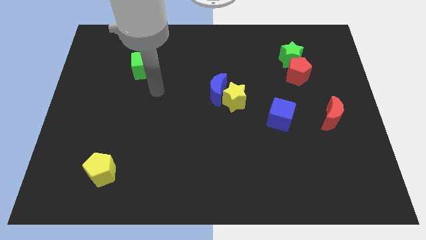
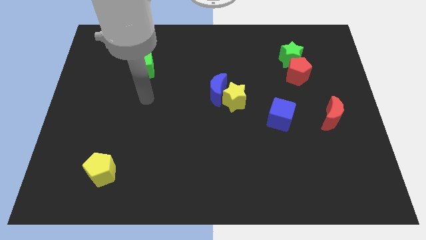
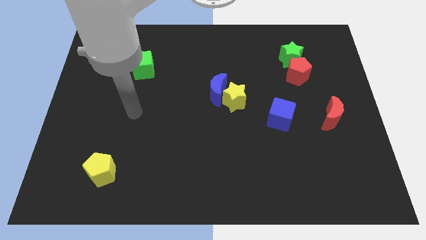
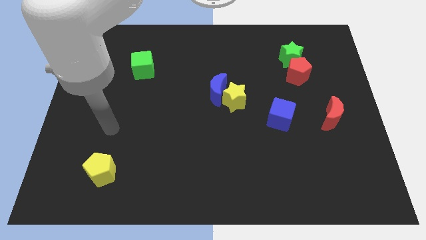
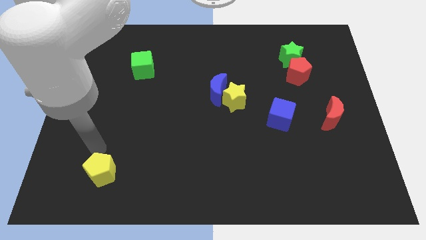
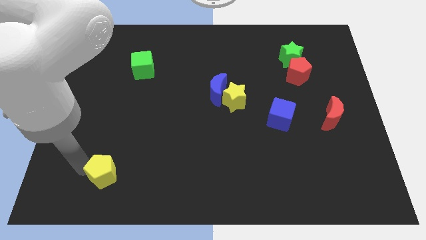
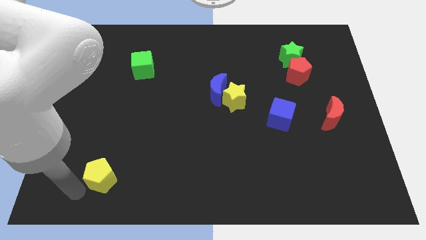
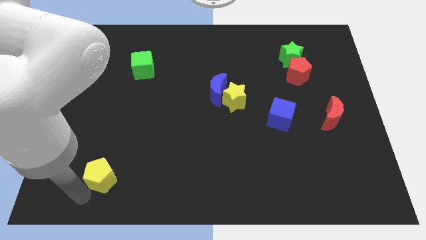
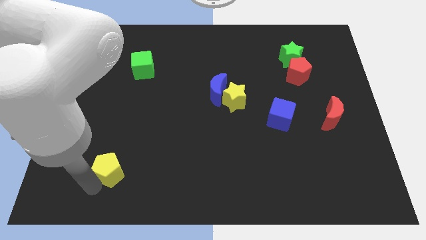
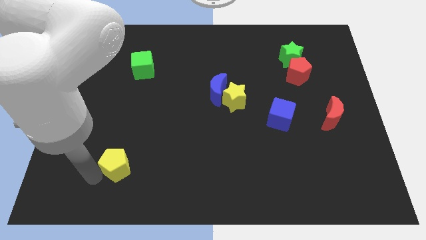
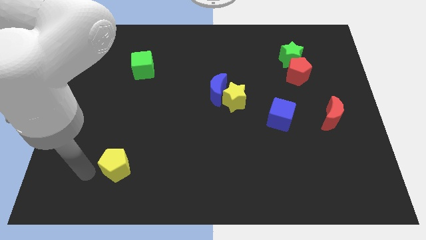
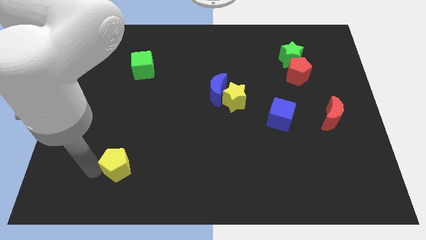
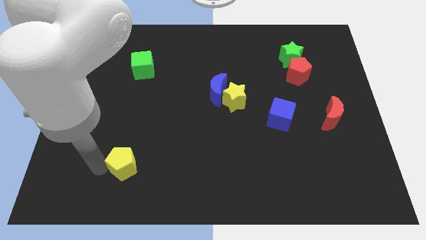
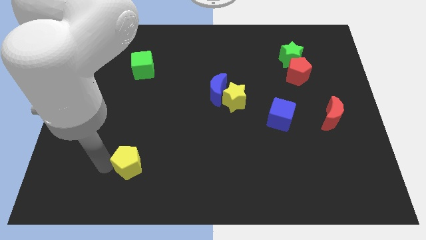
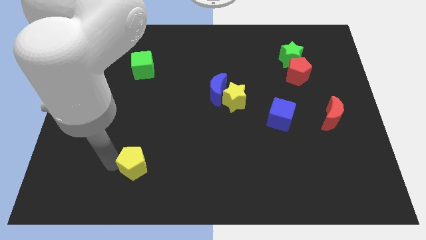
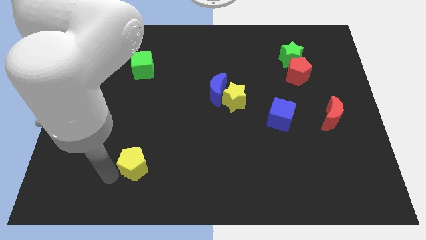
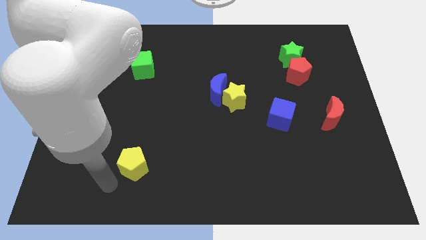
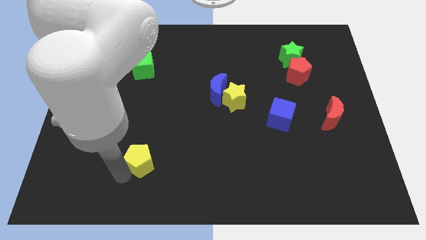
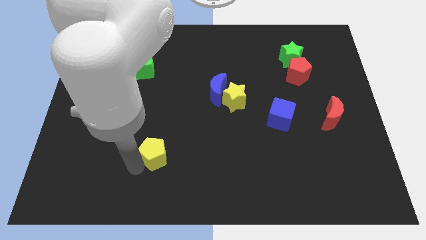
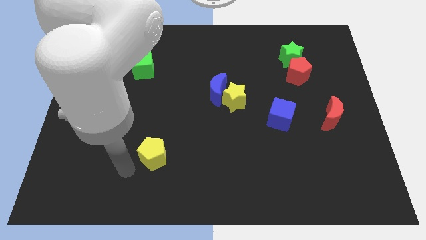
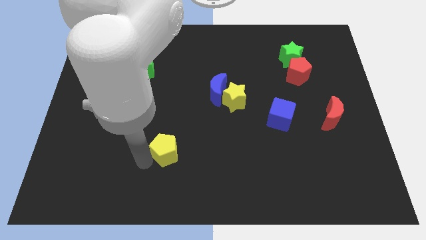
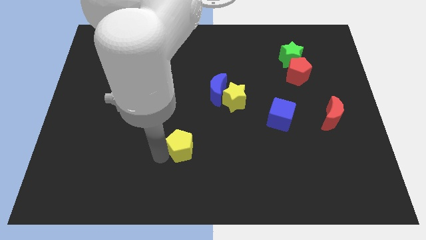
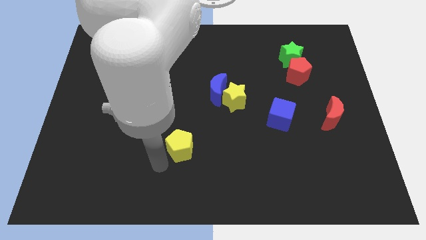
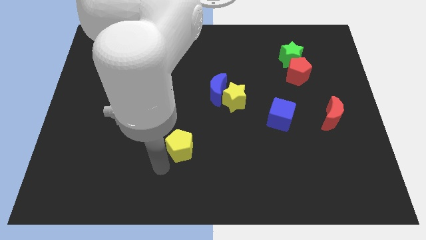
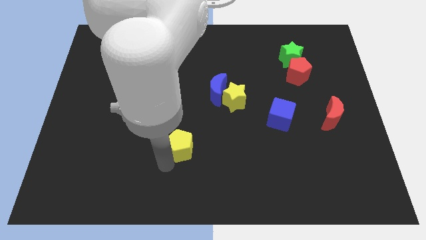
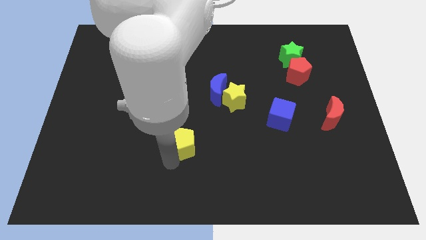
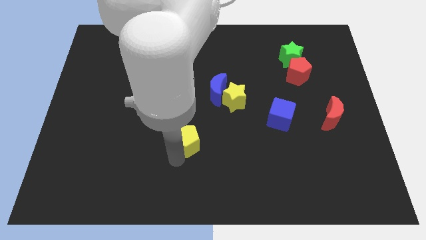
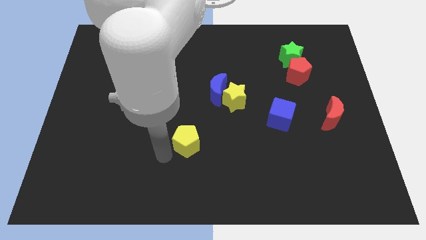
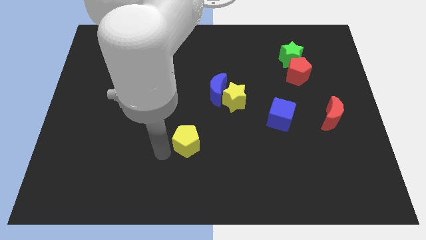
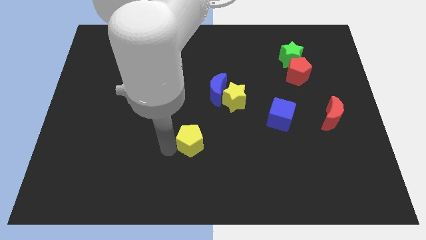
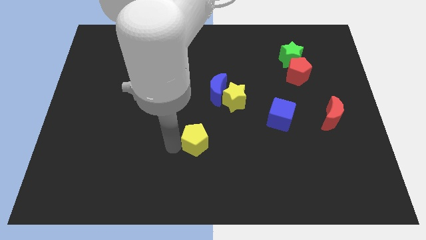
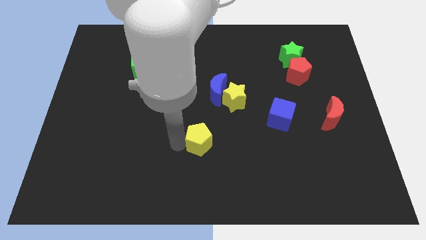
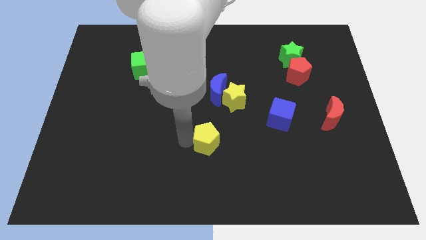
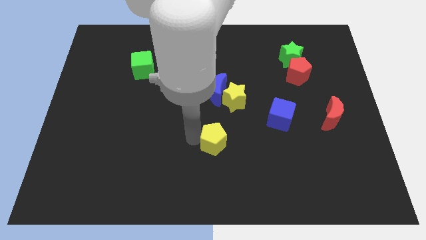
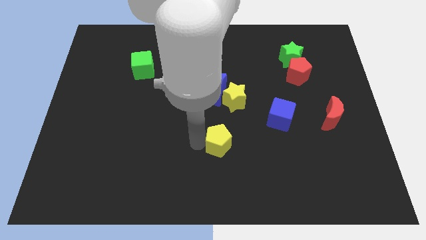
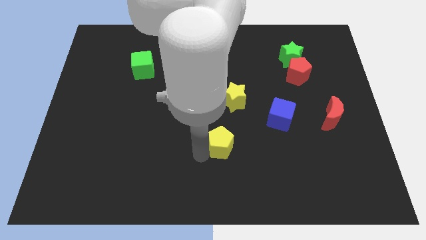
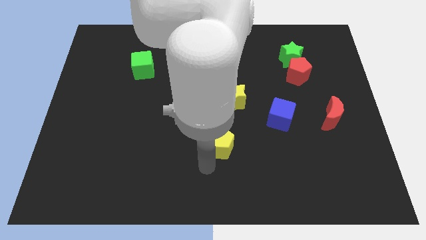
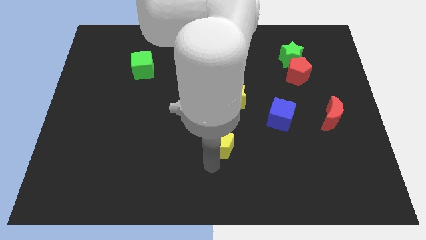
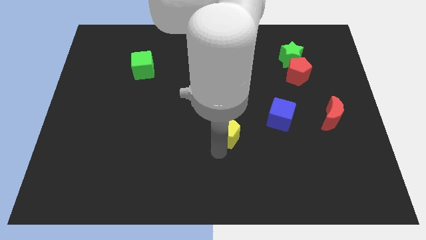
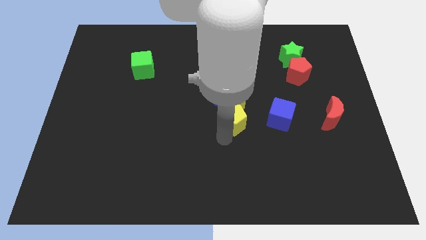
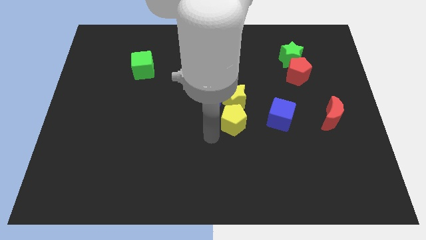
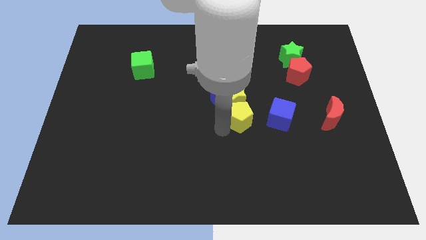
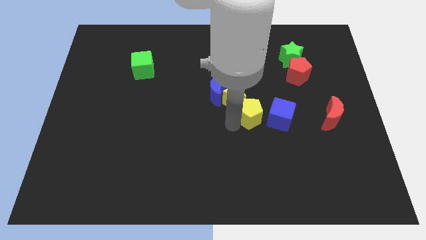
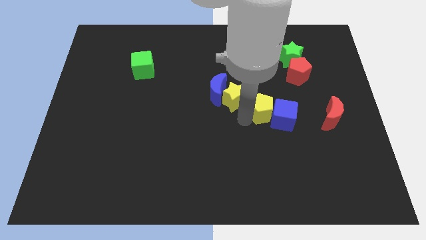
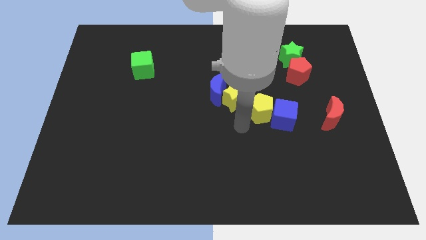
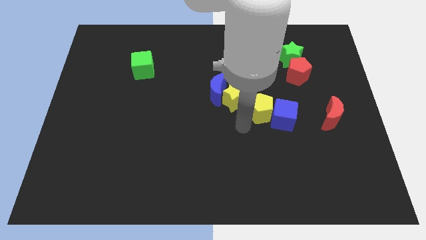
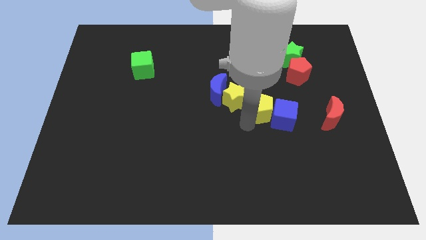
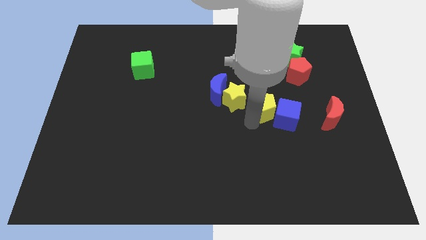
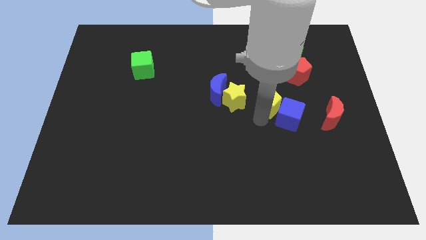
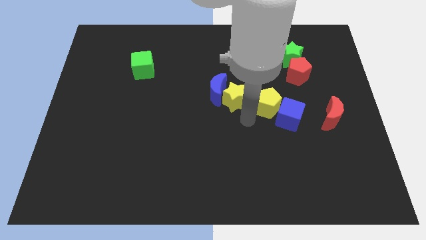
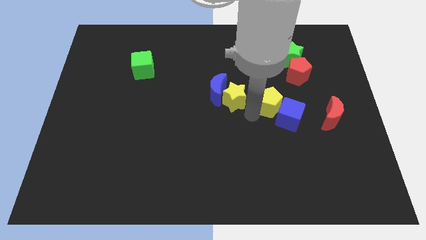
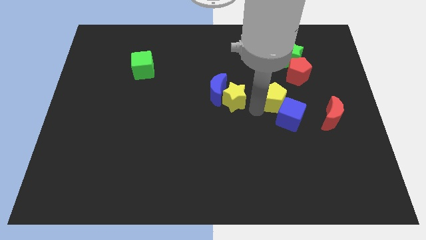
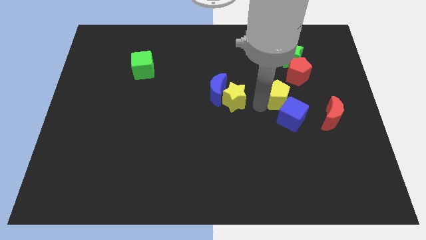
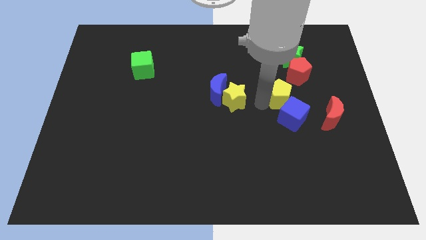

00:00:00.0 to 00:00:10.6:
put the yellow pentagon to the bottom of the green star

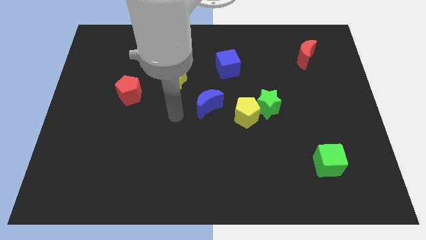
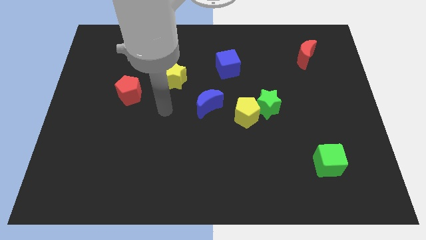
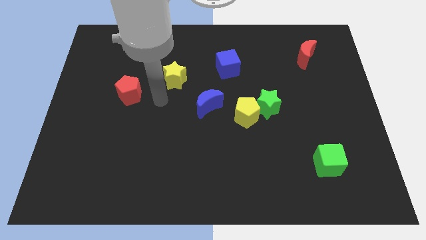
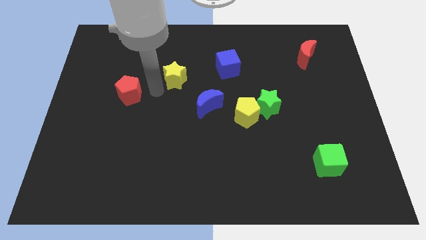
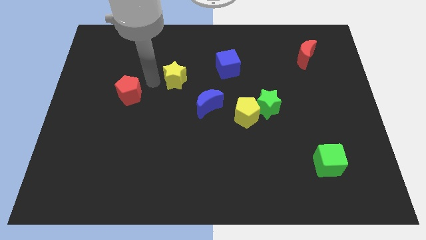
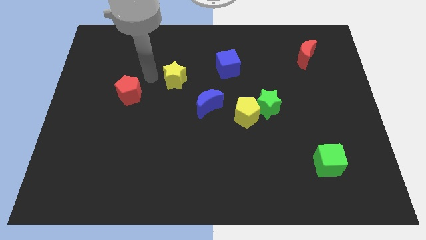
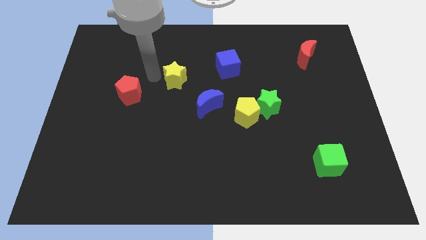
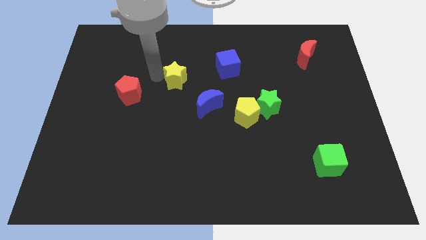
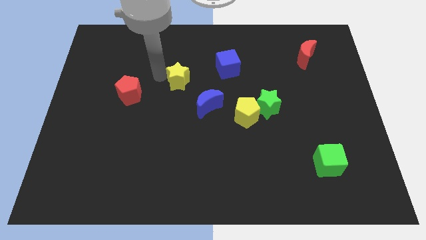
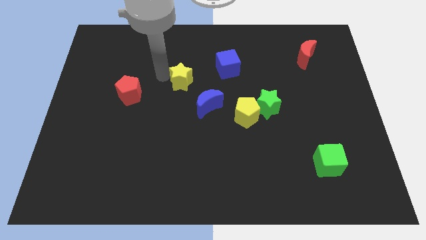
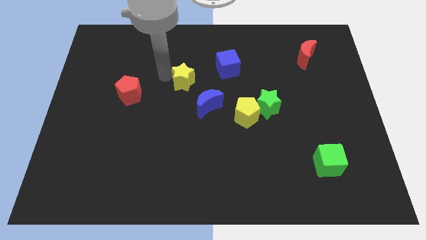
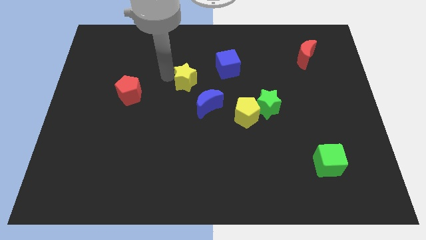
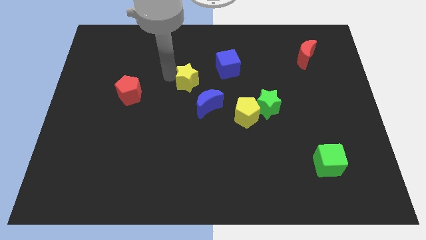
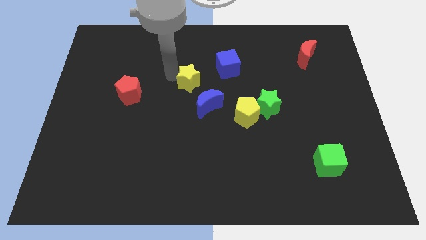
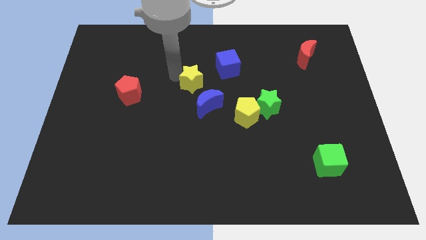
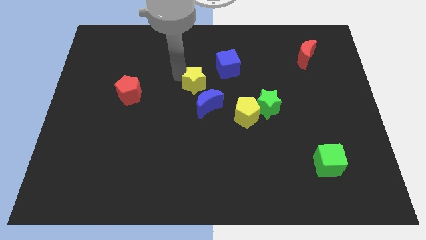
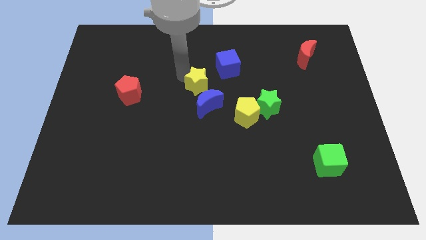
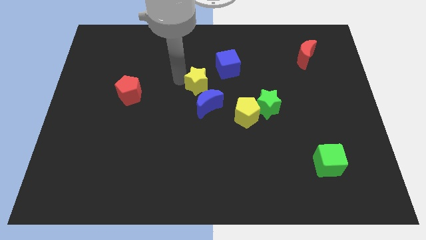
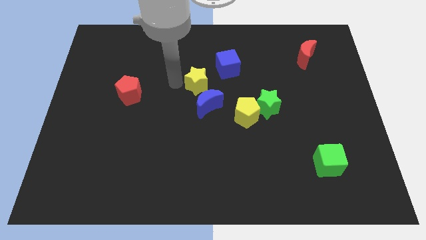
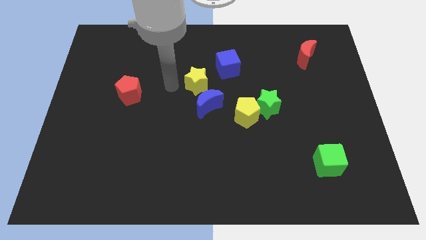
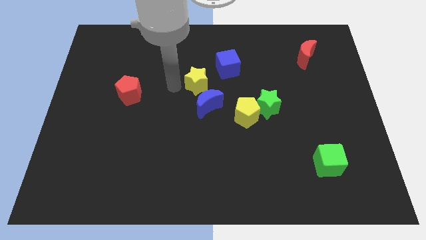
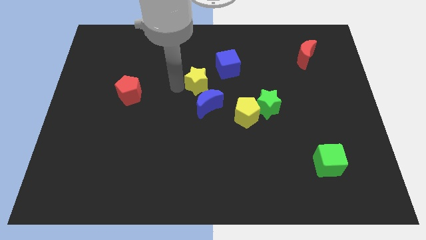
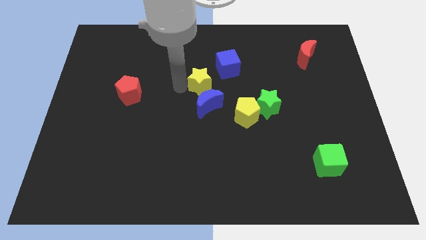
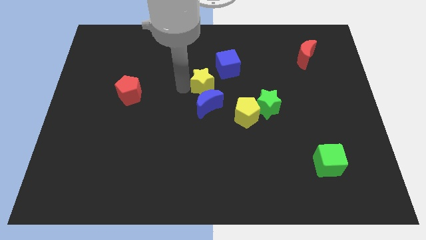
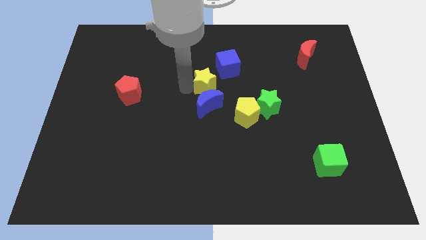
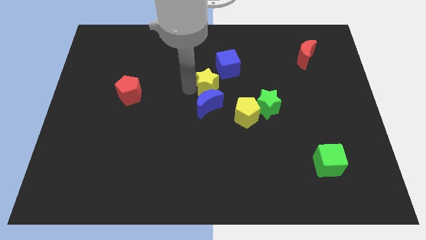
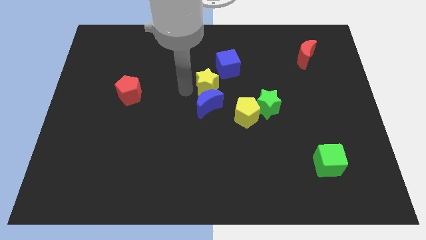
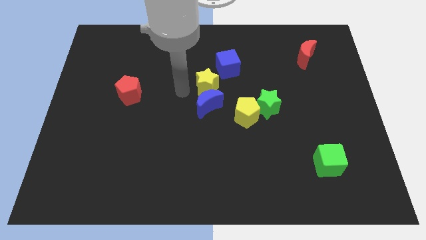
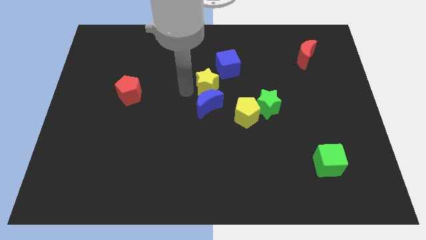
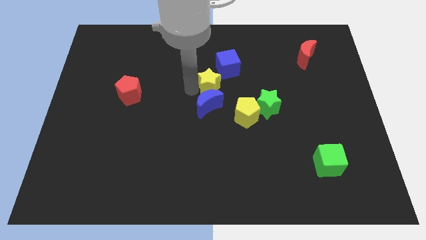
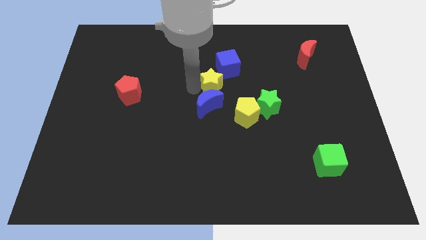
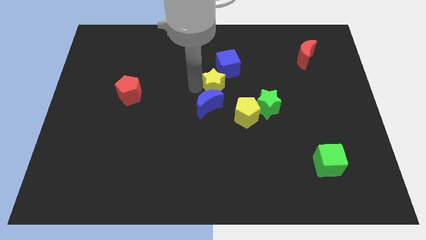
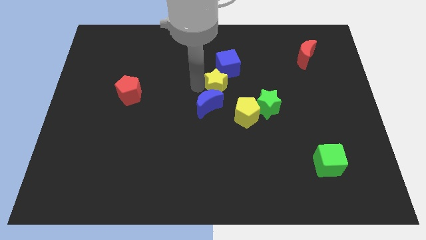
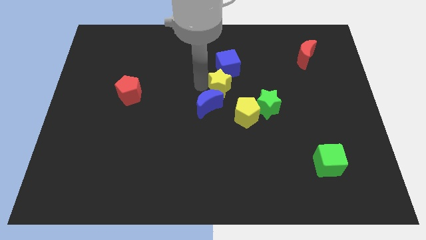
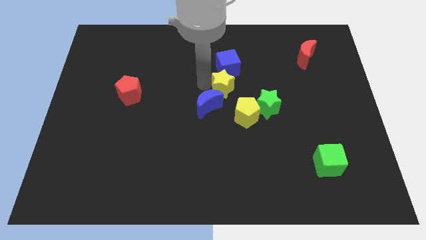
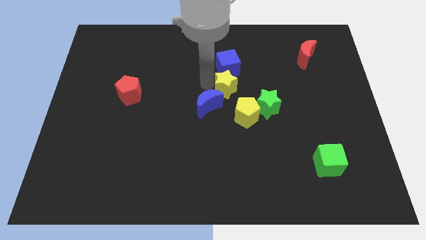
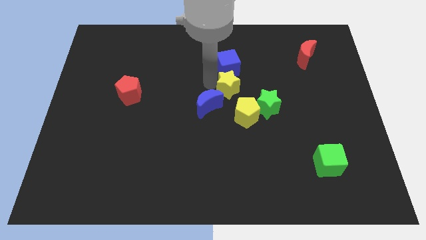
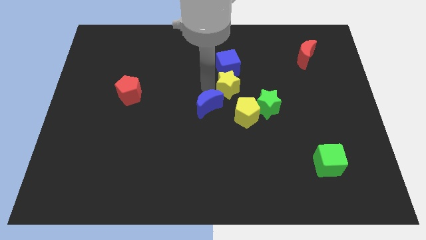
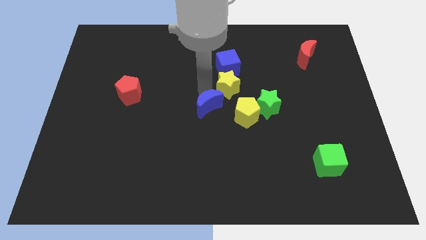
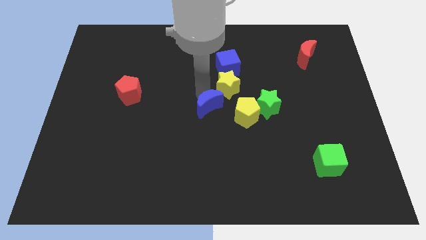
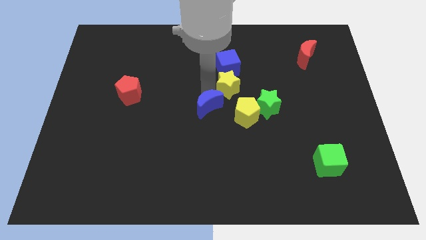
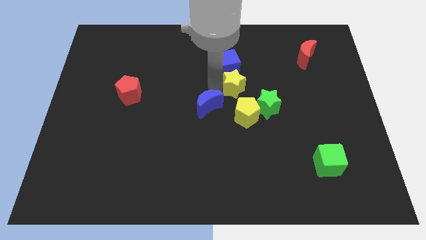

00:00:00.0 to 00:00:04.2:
put the yellow star diagonally down and to the right of the blue cube
